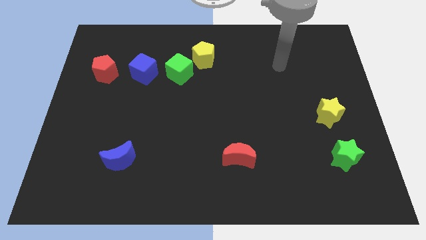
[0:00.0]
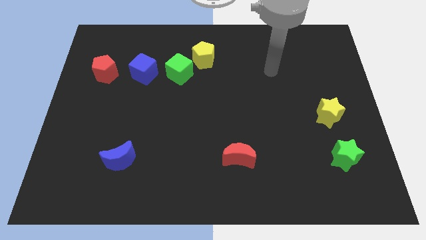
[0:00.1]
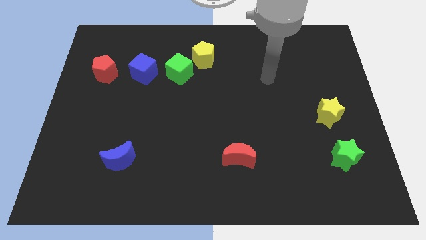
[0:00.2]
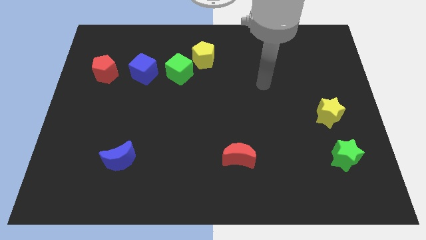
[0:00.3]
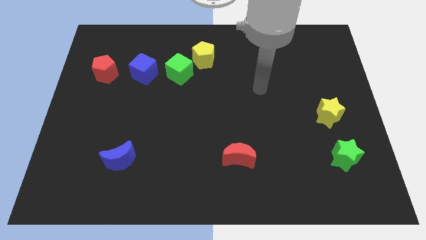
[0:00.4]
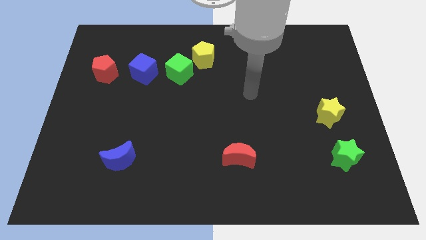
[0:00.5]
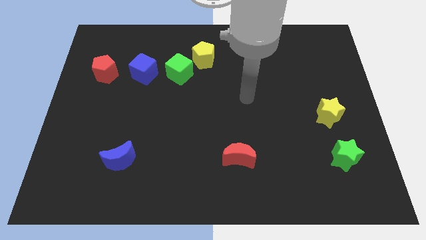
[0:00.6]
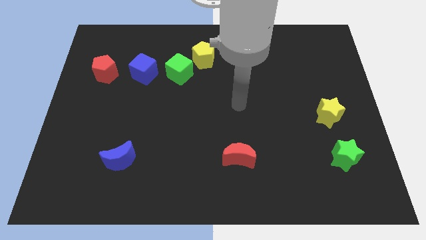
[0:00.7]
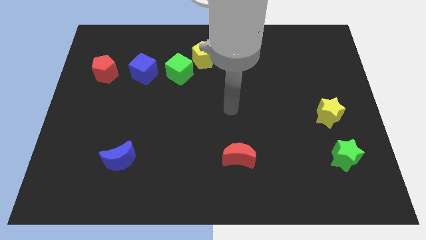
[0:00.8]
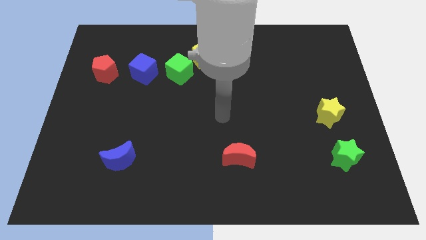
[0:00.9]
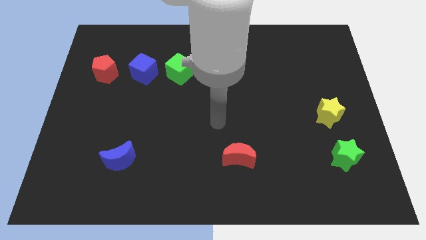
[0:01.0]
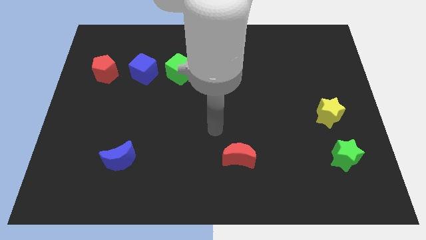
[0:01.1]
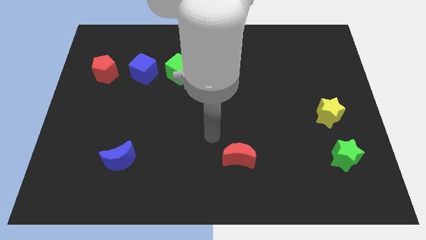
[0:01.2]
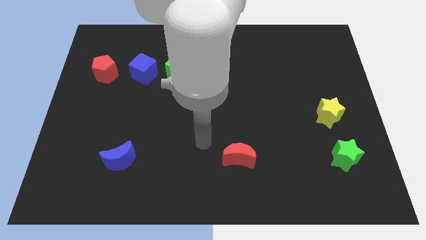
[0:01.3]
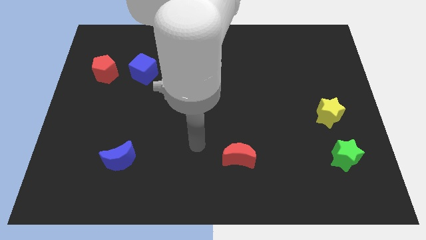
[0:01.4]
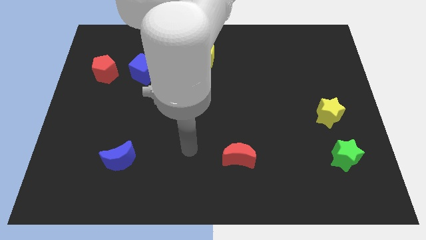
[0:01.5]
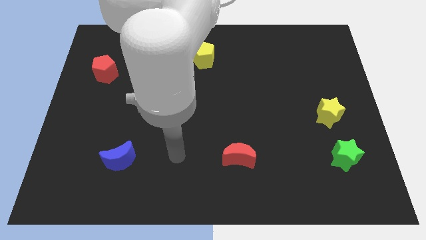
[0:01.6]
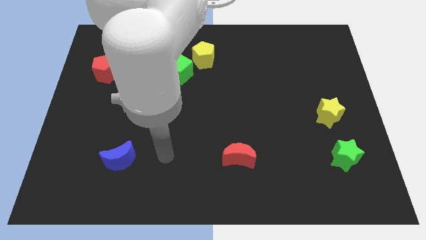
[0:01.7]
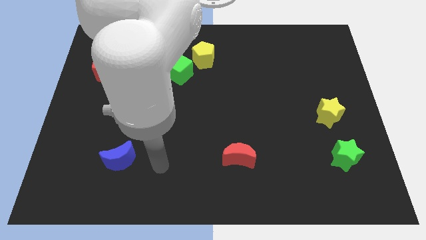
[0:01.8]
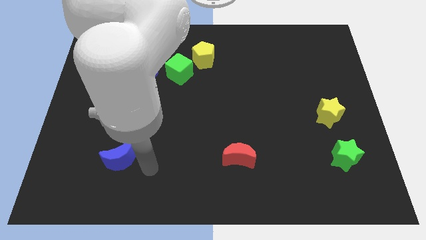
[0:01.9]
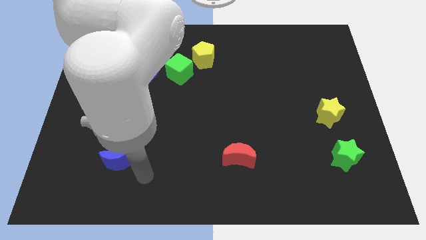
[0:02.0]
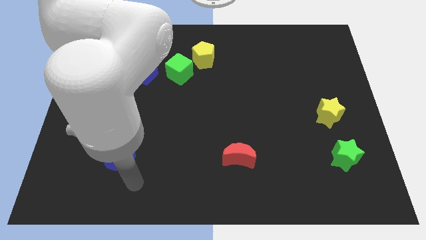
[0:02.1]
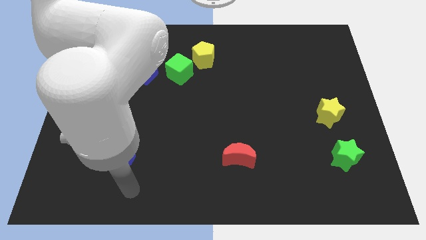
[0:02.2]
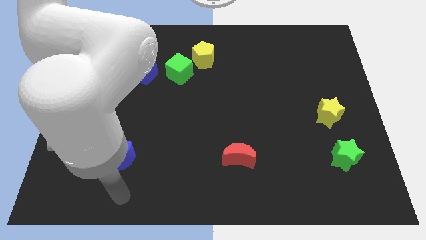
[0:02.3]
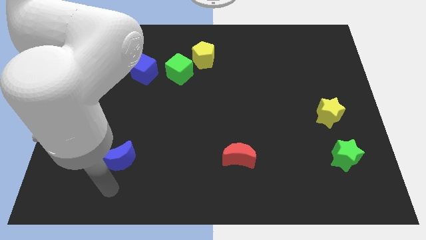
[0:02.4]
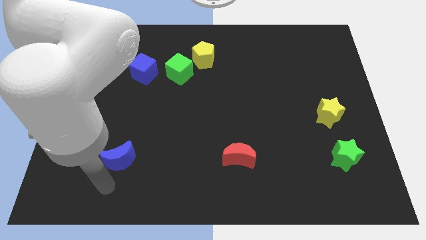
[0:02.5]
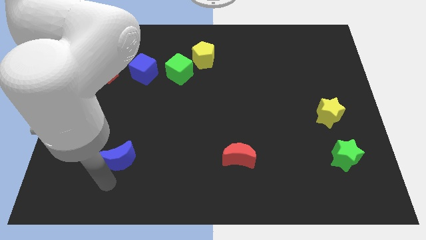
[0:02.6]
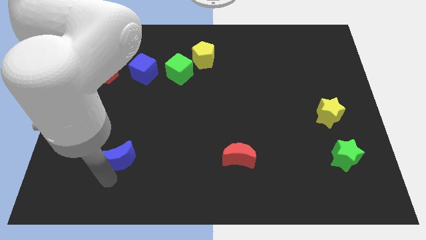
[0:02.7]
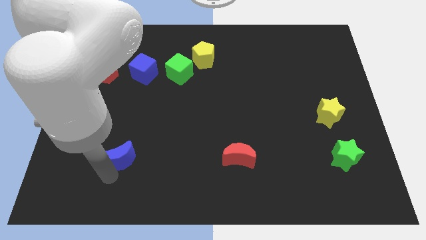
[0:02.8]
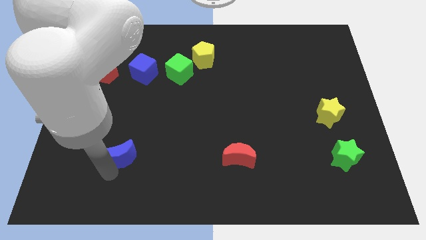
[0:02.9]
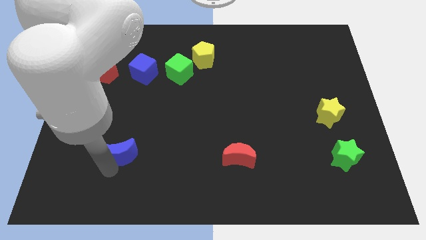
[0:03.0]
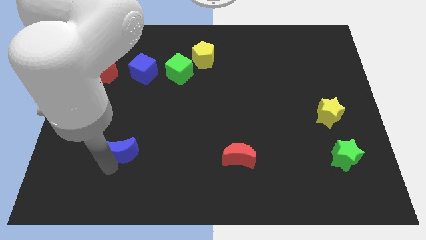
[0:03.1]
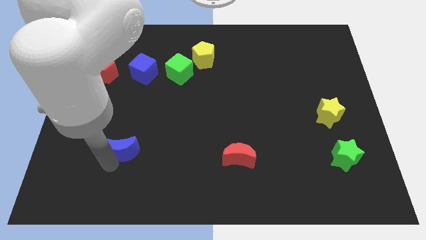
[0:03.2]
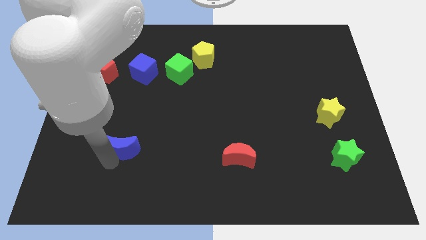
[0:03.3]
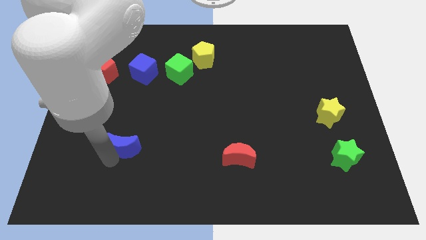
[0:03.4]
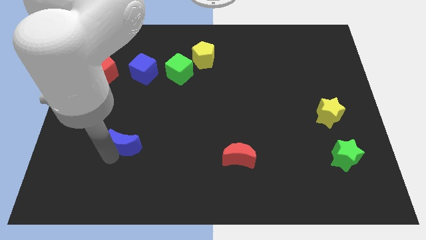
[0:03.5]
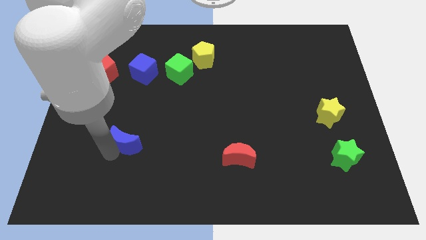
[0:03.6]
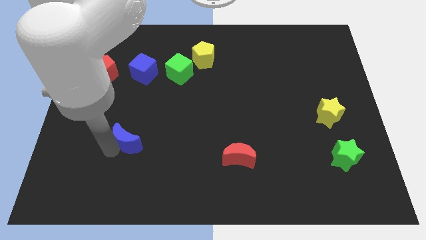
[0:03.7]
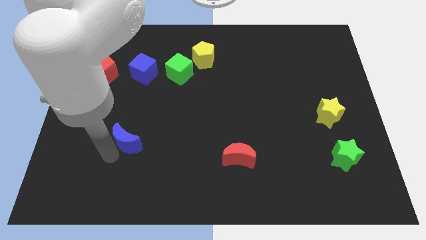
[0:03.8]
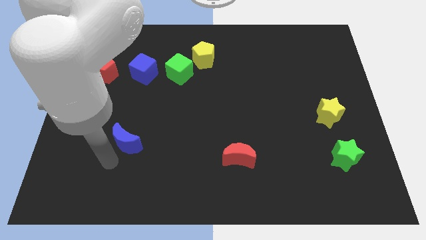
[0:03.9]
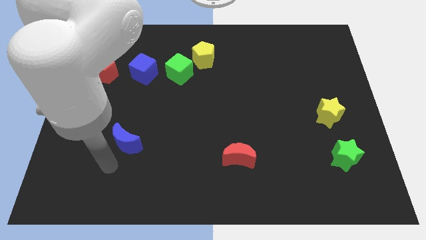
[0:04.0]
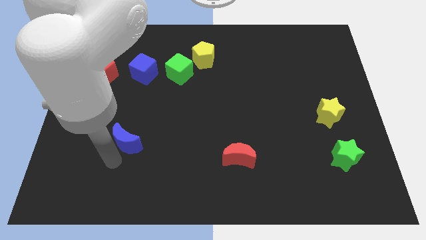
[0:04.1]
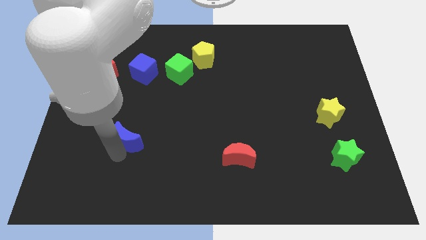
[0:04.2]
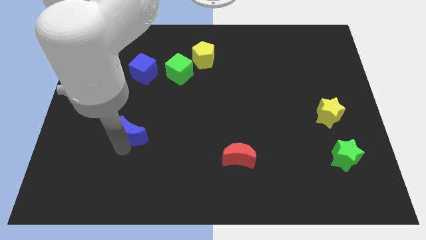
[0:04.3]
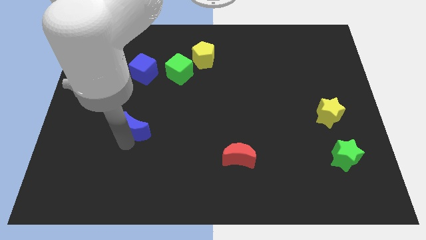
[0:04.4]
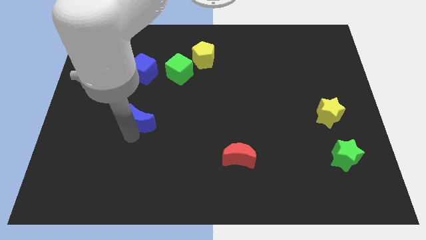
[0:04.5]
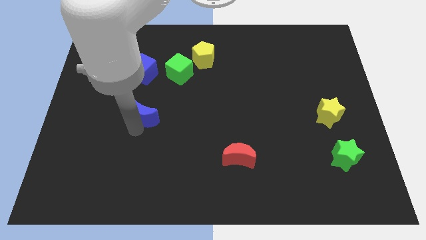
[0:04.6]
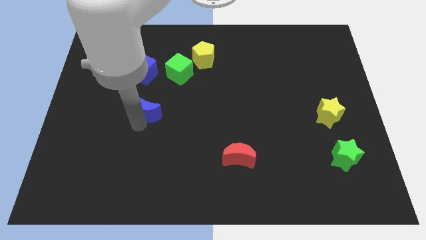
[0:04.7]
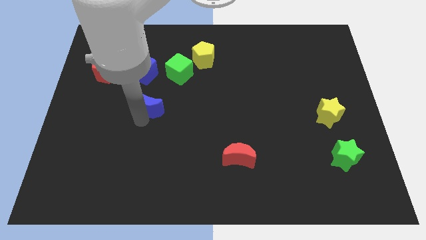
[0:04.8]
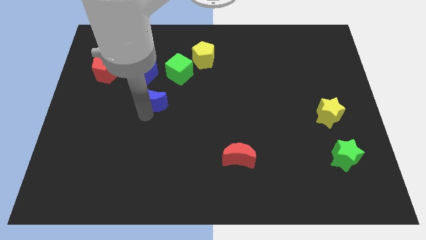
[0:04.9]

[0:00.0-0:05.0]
put the blue moon to the bottom left side of the green cube

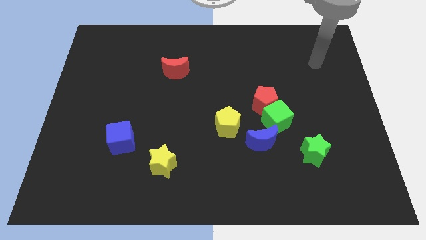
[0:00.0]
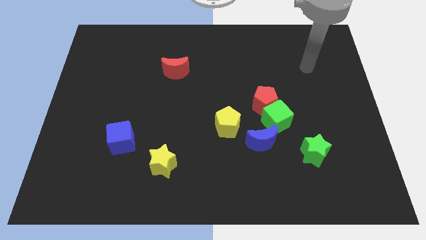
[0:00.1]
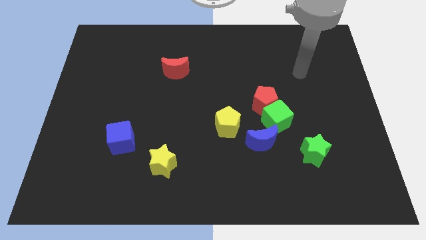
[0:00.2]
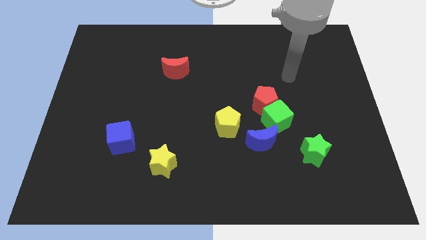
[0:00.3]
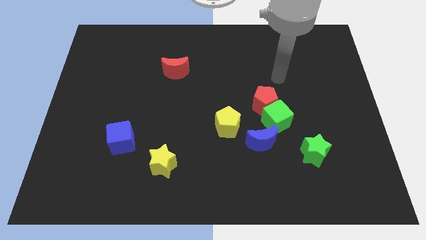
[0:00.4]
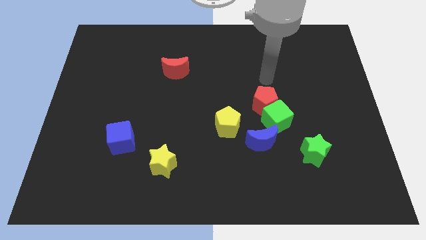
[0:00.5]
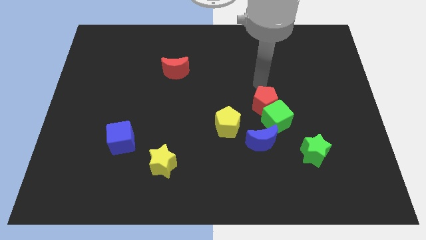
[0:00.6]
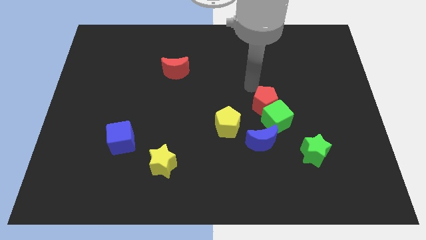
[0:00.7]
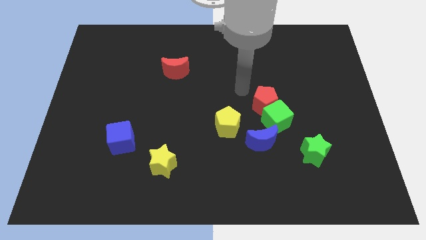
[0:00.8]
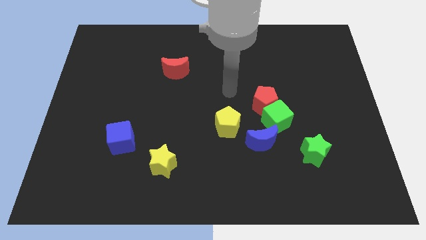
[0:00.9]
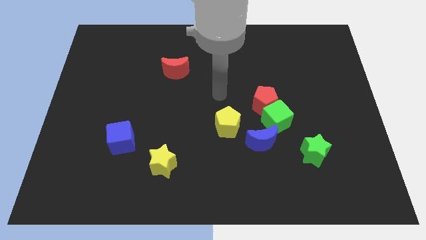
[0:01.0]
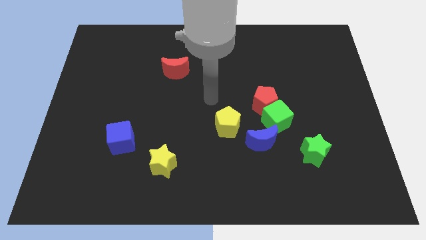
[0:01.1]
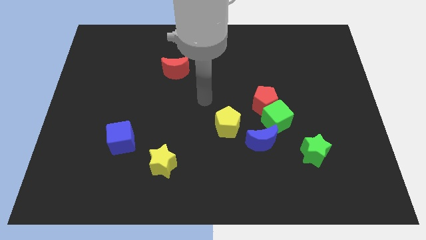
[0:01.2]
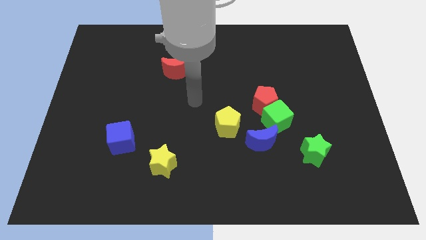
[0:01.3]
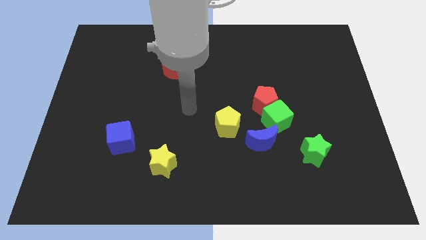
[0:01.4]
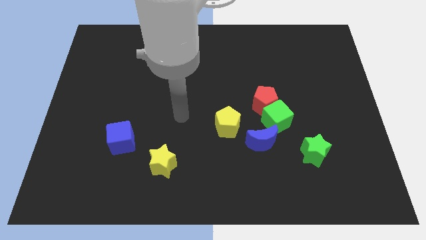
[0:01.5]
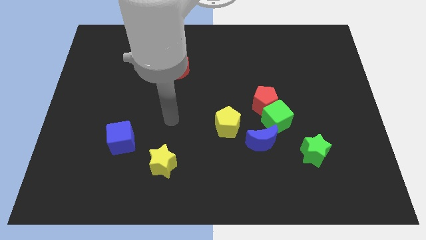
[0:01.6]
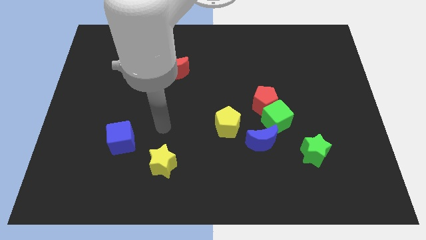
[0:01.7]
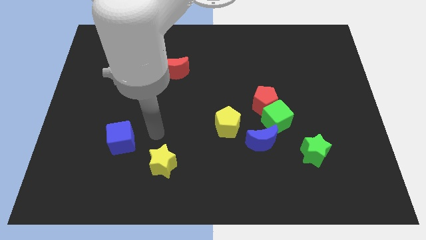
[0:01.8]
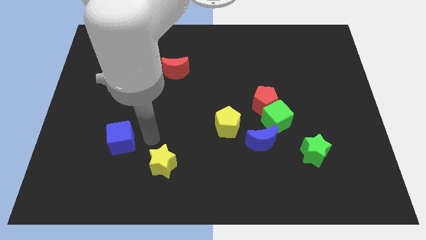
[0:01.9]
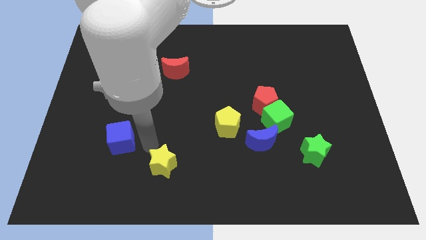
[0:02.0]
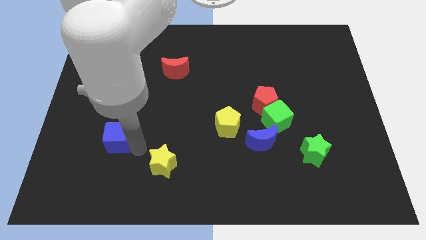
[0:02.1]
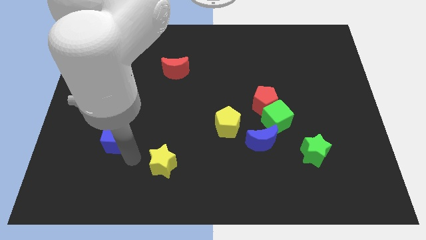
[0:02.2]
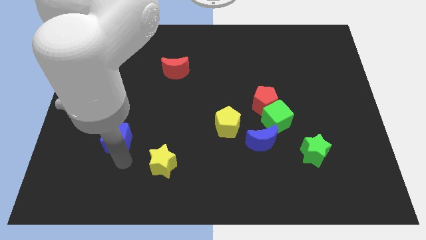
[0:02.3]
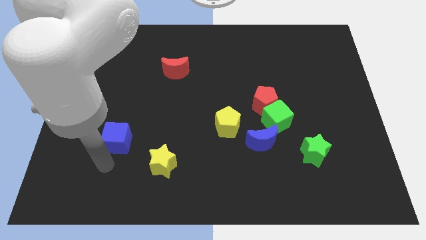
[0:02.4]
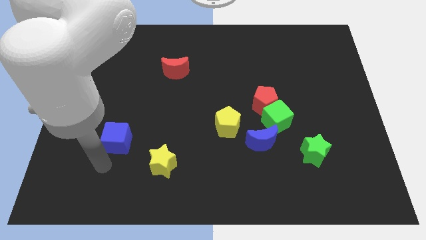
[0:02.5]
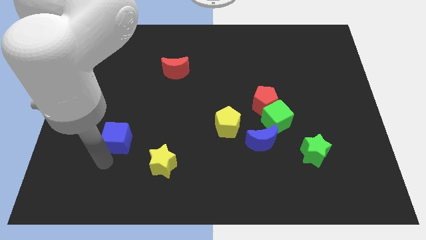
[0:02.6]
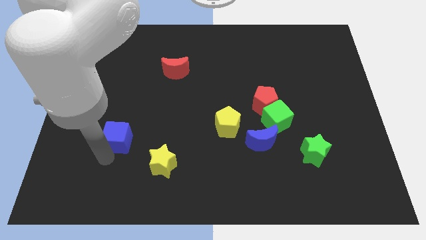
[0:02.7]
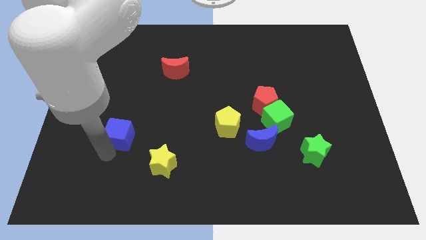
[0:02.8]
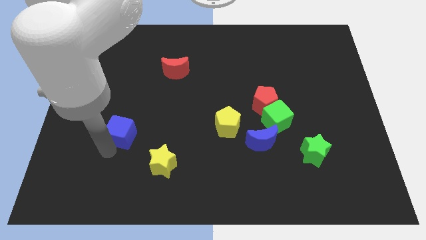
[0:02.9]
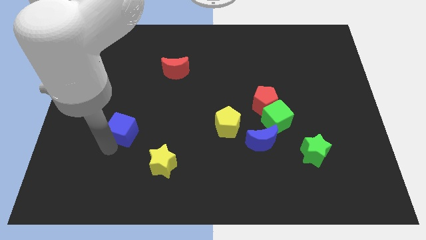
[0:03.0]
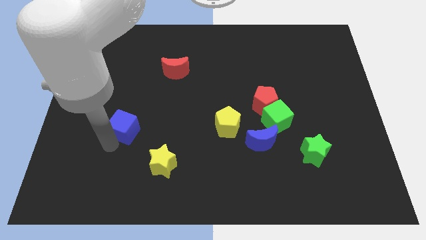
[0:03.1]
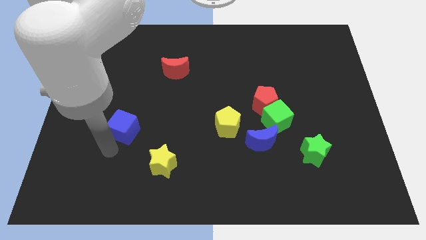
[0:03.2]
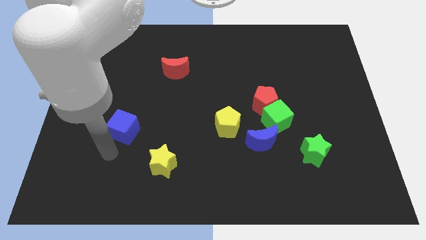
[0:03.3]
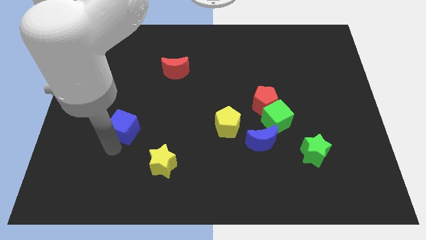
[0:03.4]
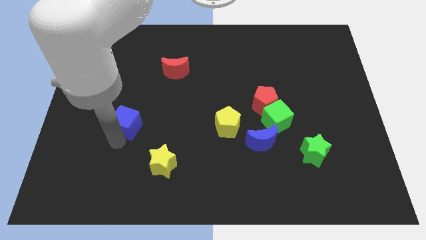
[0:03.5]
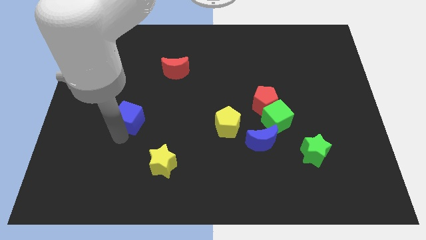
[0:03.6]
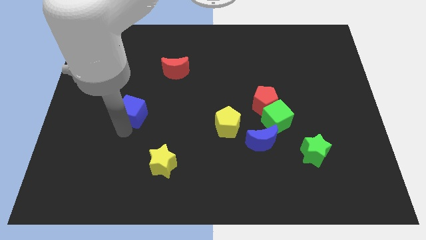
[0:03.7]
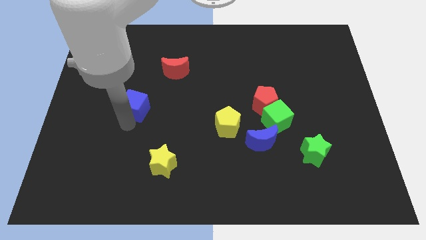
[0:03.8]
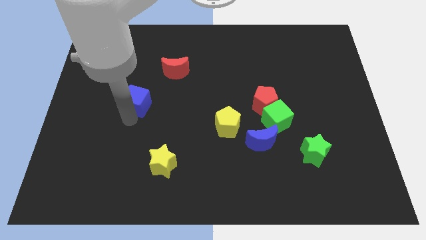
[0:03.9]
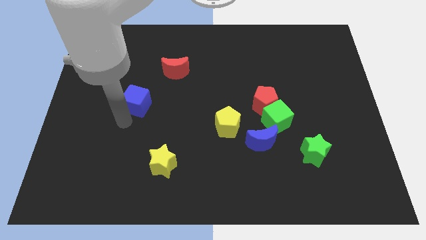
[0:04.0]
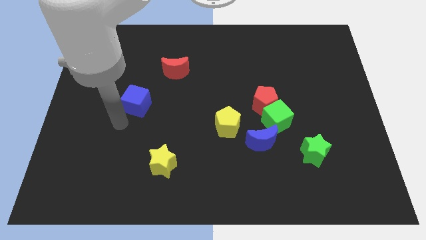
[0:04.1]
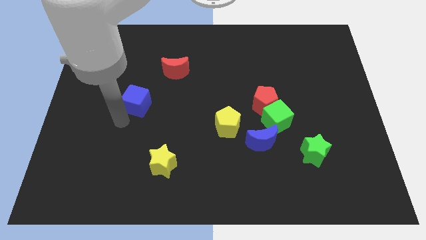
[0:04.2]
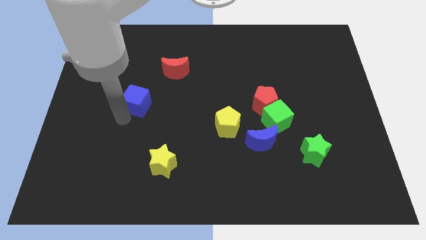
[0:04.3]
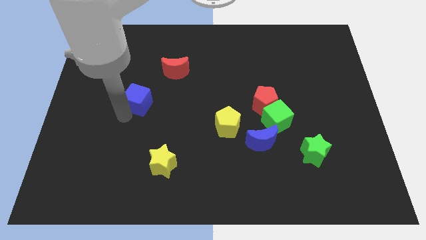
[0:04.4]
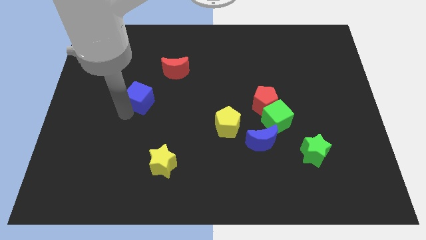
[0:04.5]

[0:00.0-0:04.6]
put the blue cube to the bottom left side of the red moon
